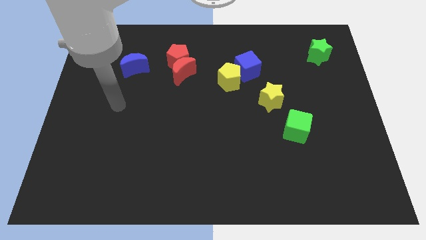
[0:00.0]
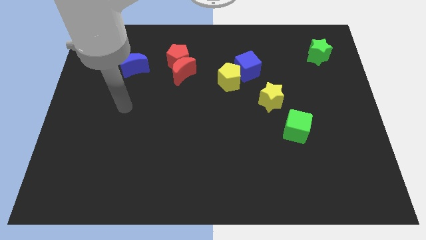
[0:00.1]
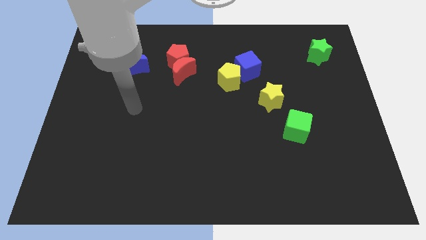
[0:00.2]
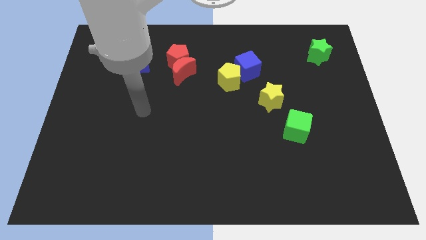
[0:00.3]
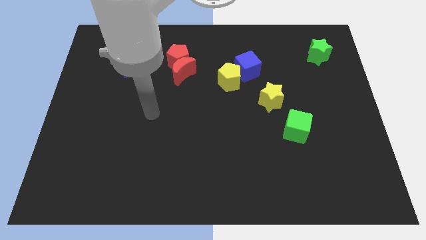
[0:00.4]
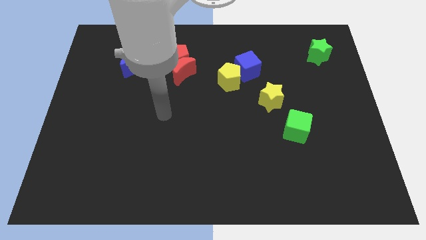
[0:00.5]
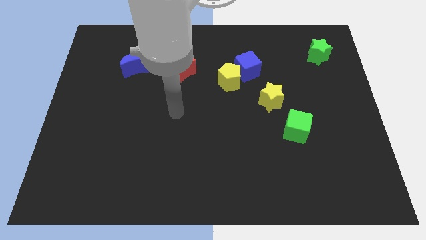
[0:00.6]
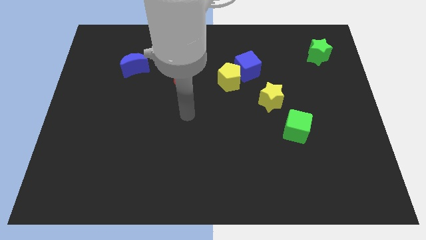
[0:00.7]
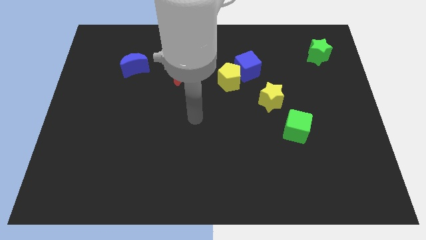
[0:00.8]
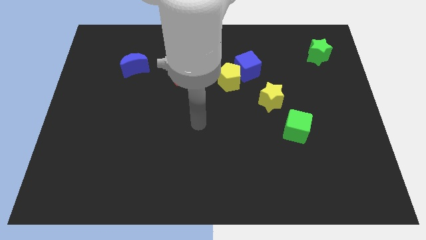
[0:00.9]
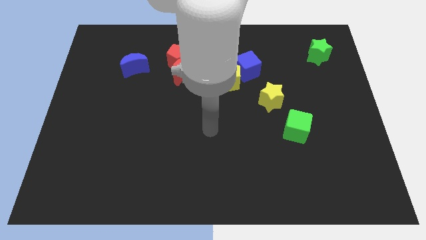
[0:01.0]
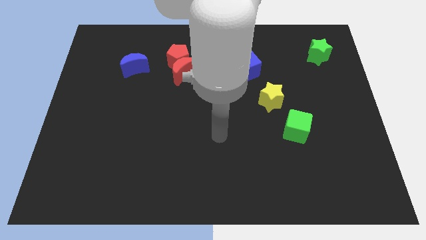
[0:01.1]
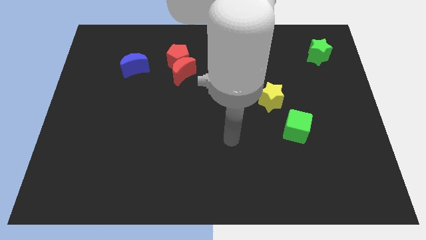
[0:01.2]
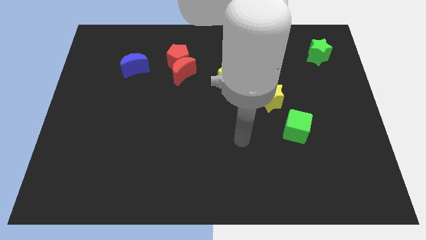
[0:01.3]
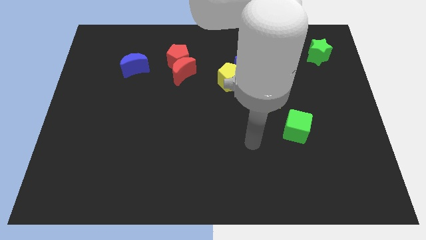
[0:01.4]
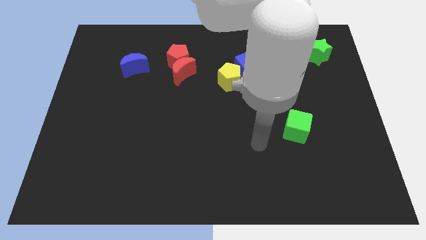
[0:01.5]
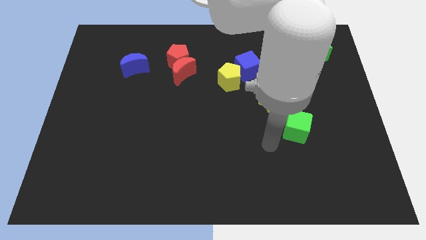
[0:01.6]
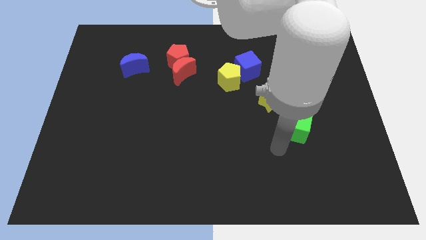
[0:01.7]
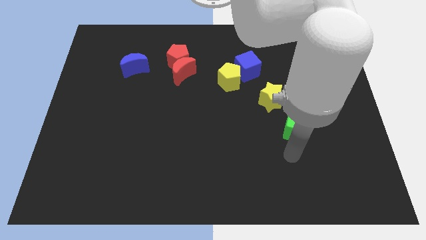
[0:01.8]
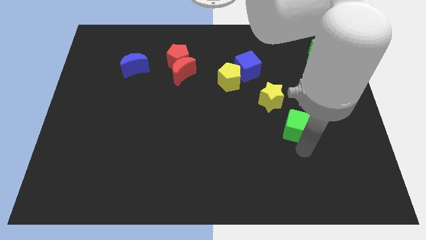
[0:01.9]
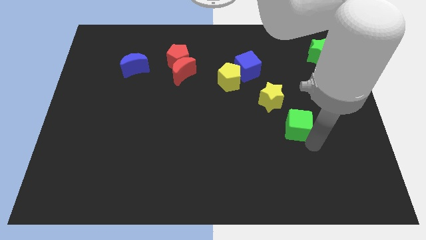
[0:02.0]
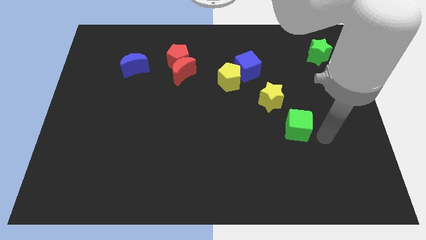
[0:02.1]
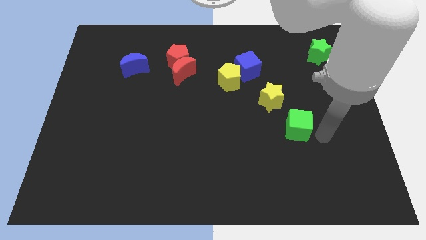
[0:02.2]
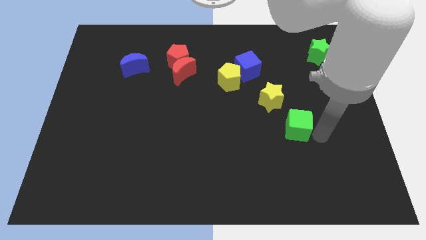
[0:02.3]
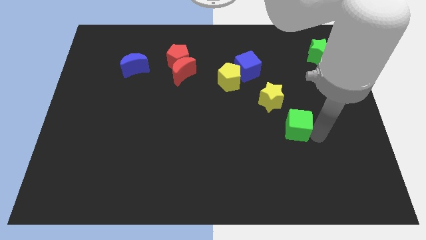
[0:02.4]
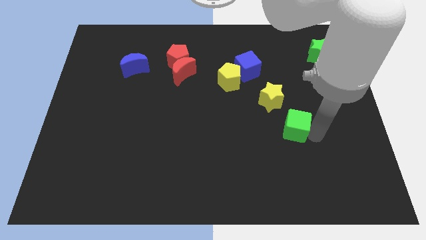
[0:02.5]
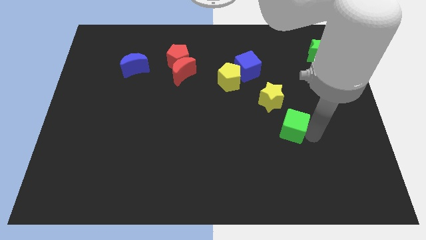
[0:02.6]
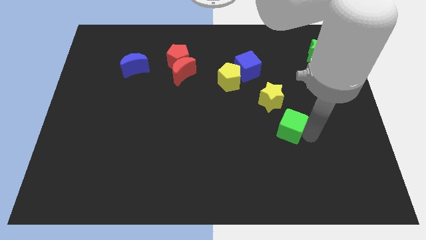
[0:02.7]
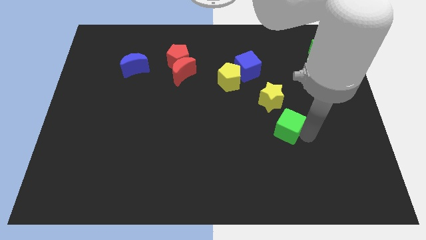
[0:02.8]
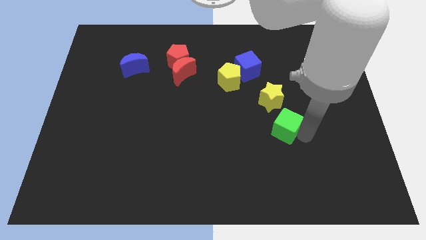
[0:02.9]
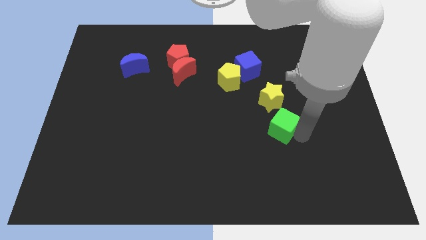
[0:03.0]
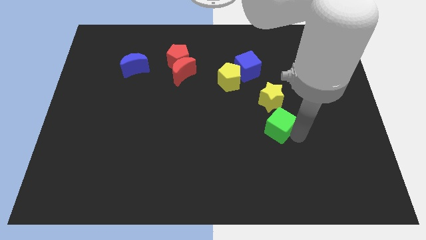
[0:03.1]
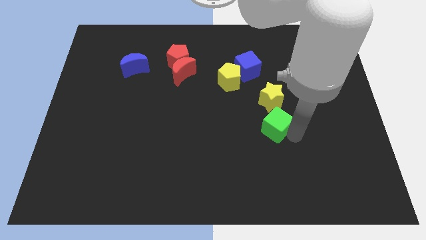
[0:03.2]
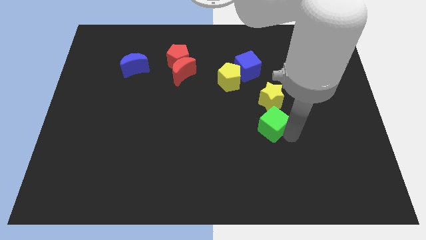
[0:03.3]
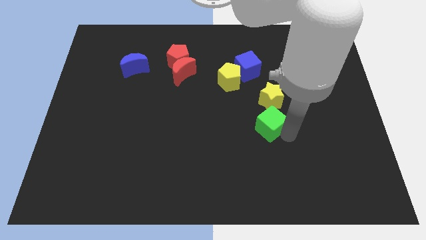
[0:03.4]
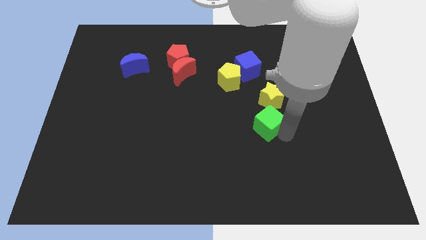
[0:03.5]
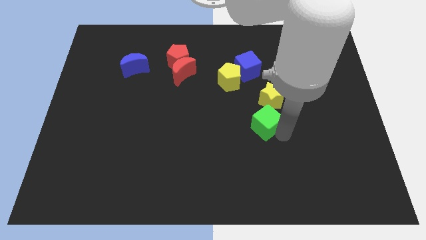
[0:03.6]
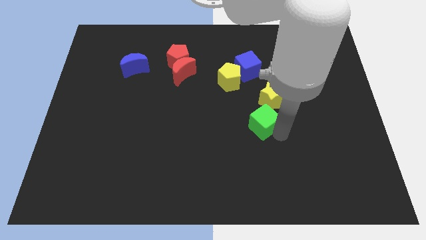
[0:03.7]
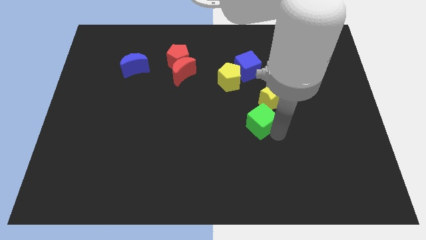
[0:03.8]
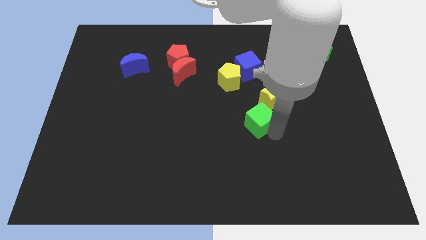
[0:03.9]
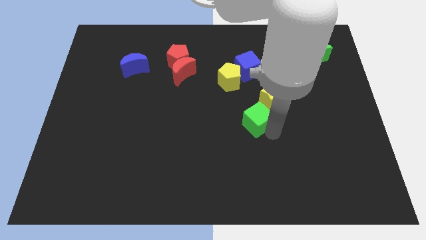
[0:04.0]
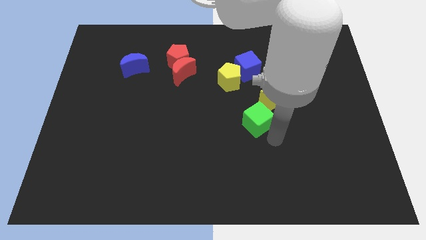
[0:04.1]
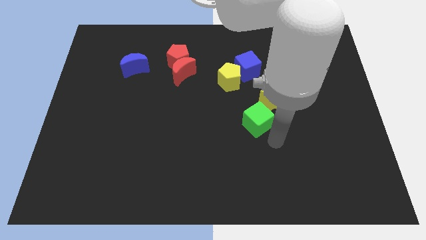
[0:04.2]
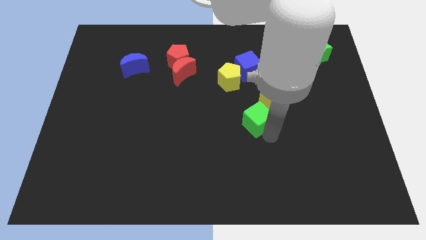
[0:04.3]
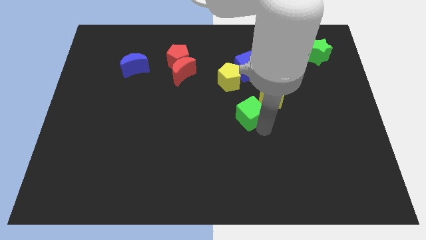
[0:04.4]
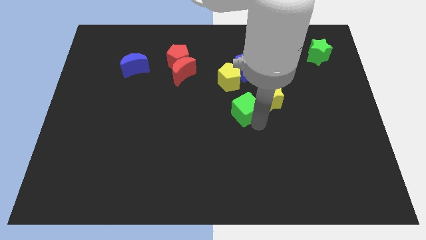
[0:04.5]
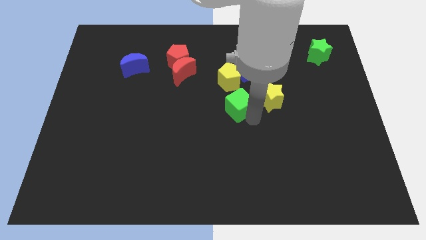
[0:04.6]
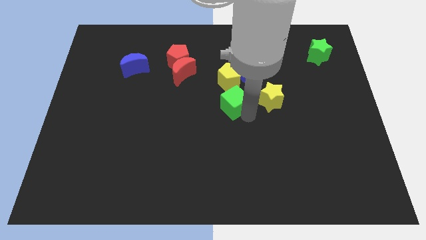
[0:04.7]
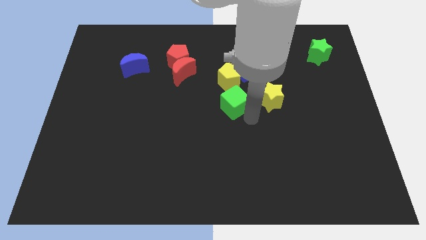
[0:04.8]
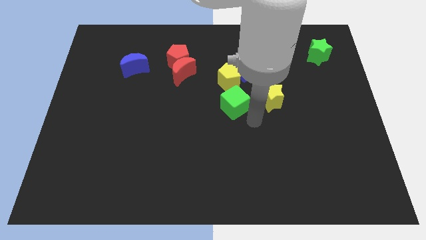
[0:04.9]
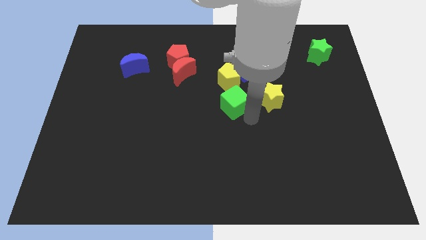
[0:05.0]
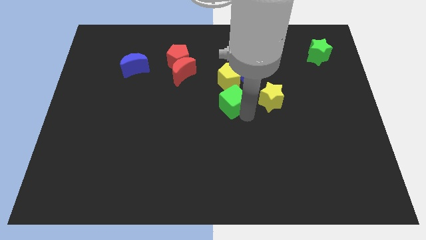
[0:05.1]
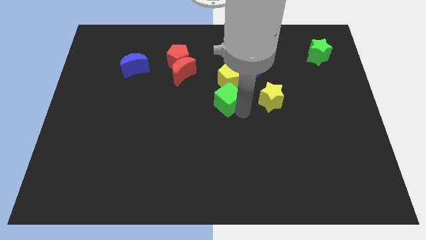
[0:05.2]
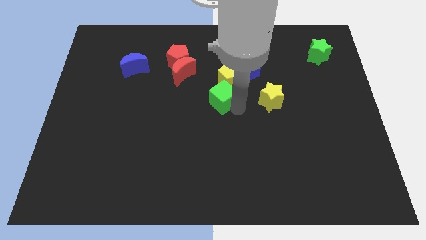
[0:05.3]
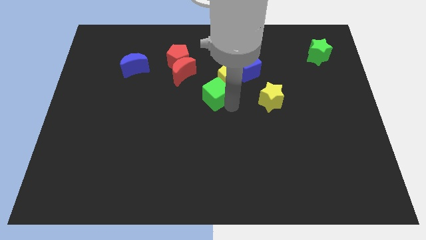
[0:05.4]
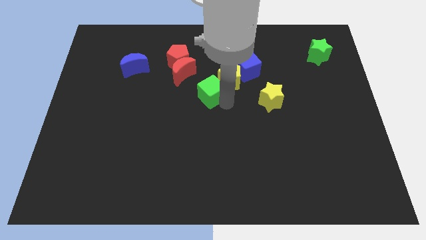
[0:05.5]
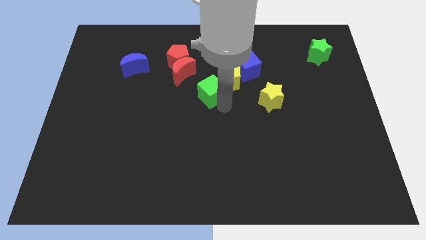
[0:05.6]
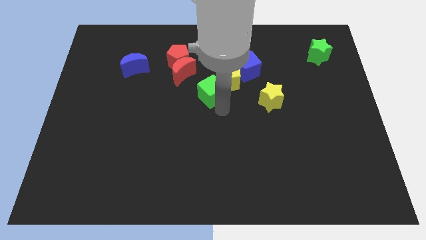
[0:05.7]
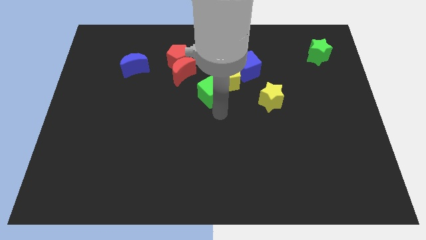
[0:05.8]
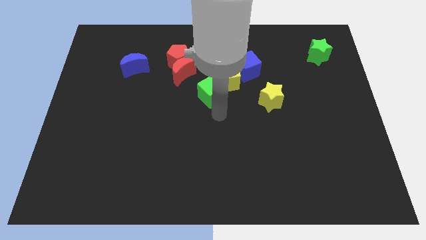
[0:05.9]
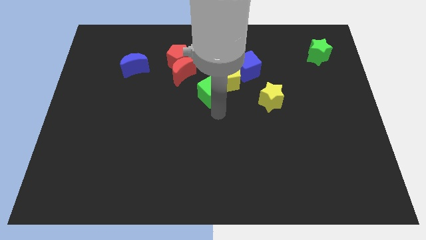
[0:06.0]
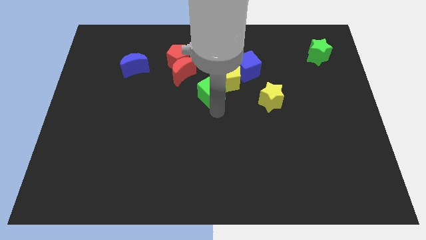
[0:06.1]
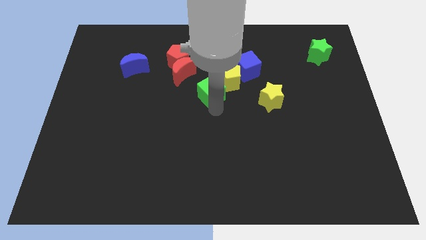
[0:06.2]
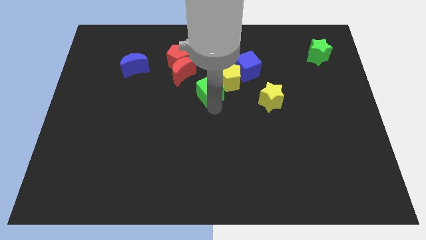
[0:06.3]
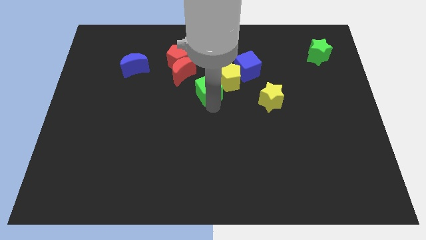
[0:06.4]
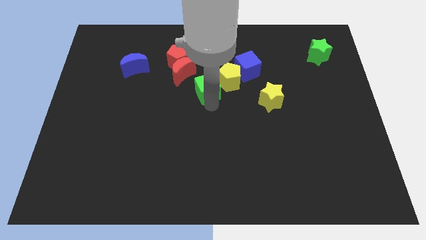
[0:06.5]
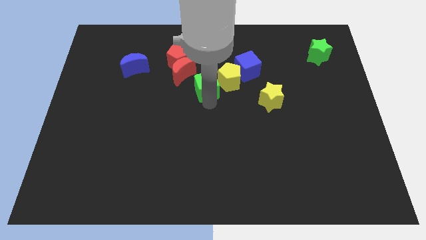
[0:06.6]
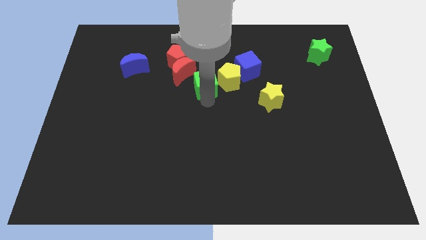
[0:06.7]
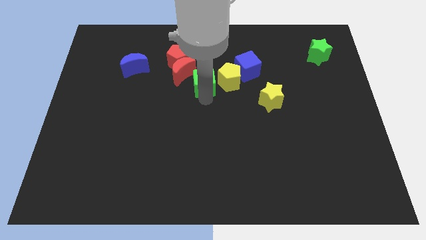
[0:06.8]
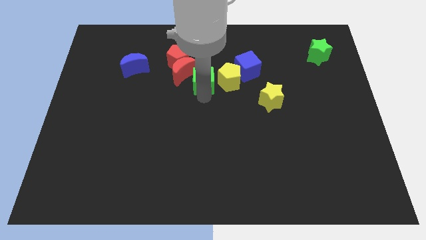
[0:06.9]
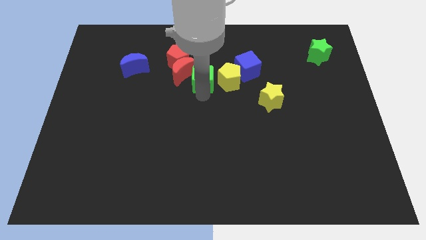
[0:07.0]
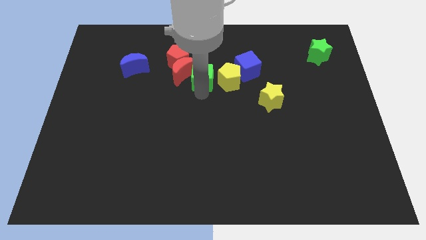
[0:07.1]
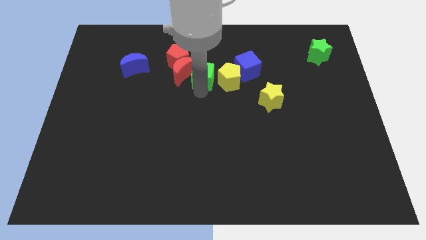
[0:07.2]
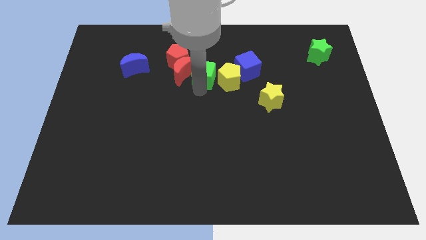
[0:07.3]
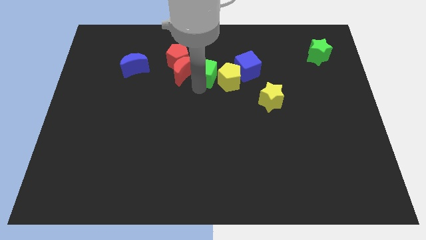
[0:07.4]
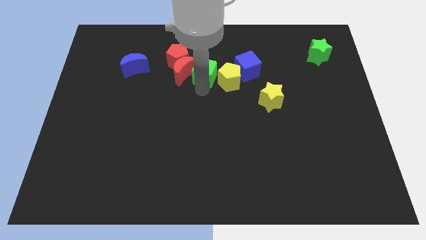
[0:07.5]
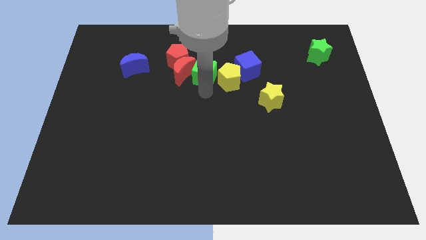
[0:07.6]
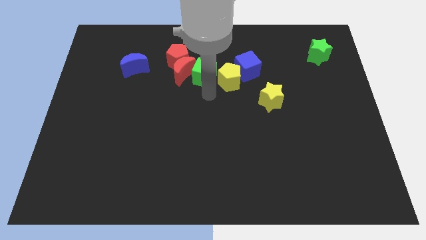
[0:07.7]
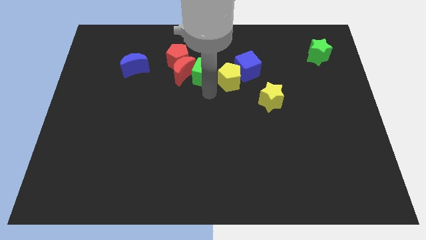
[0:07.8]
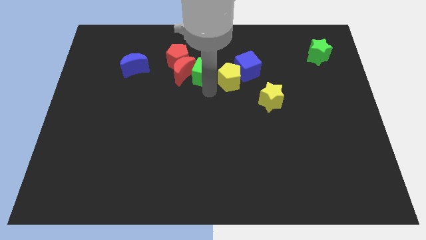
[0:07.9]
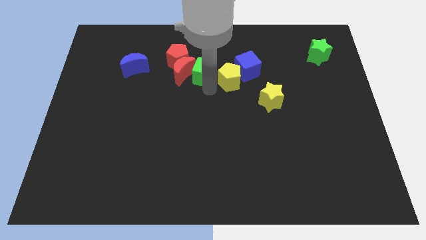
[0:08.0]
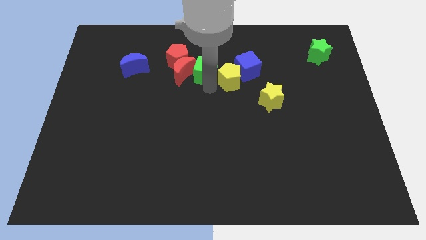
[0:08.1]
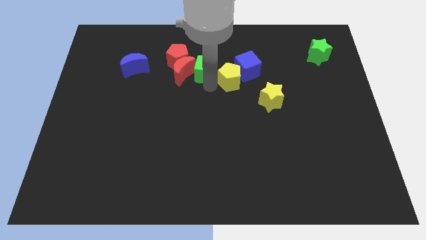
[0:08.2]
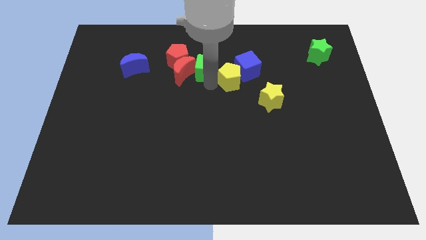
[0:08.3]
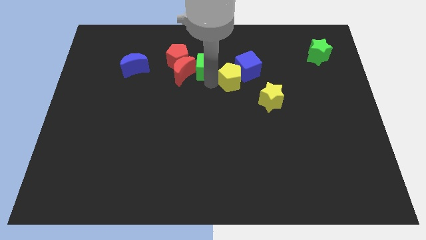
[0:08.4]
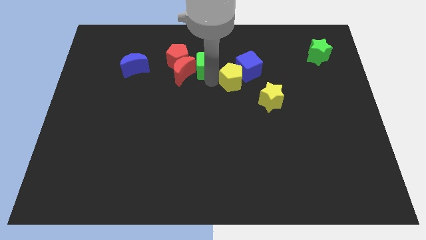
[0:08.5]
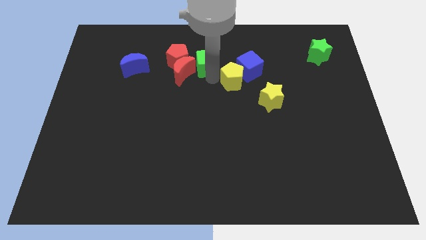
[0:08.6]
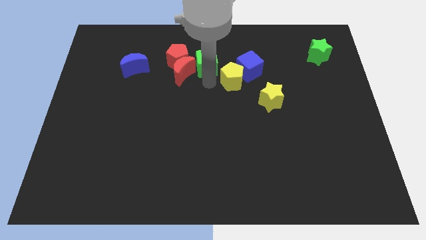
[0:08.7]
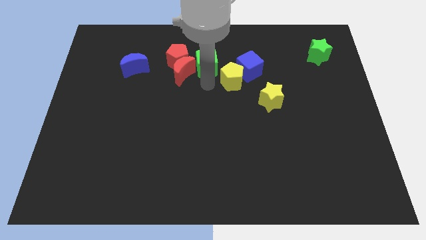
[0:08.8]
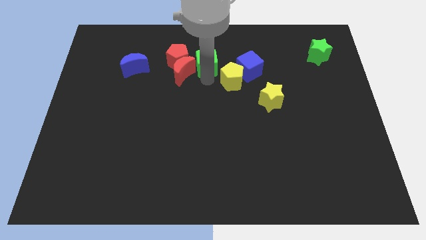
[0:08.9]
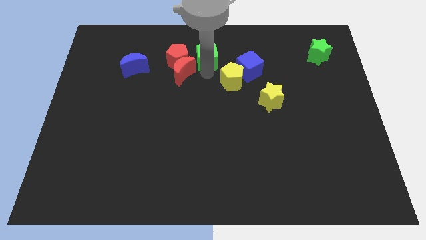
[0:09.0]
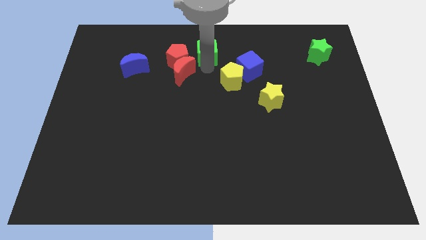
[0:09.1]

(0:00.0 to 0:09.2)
push the green cube to the towards your base
